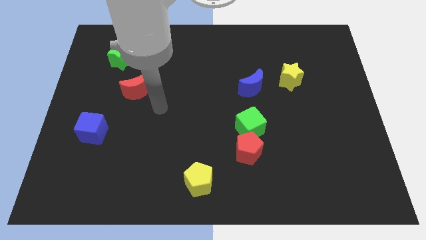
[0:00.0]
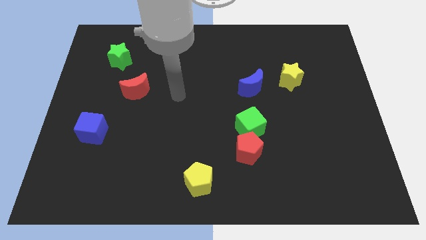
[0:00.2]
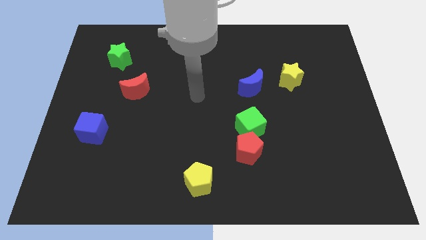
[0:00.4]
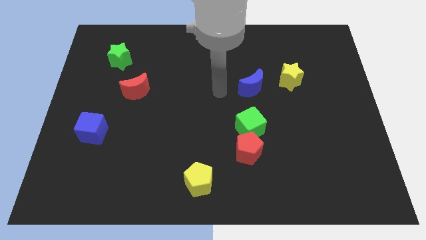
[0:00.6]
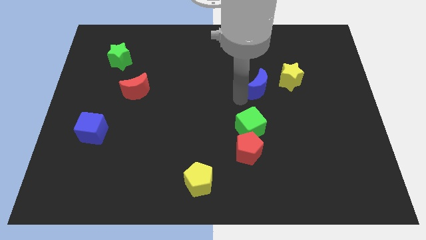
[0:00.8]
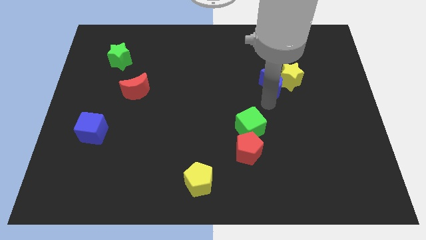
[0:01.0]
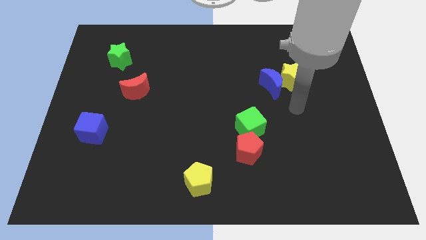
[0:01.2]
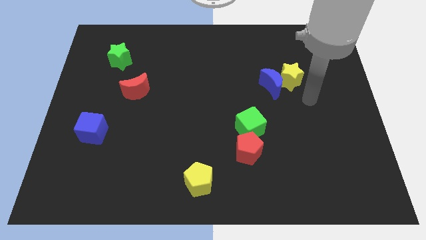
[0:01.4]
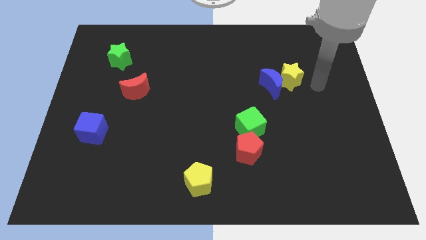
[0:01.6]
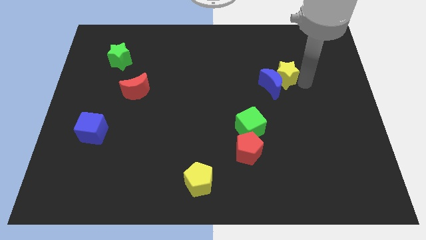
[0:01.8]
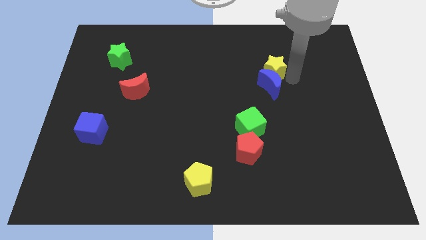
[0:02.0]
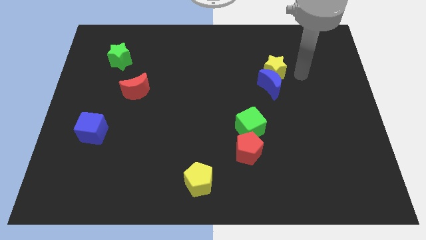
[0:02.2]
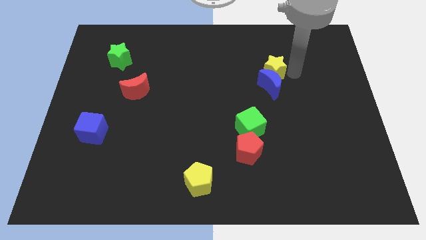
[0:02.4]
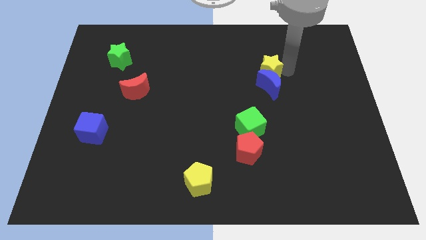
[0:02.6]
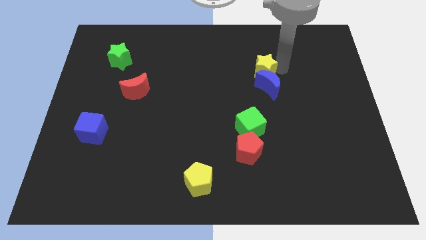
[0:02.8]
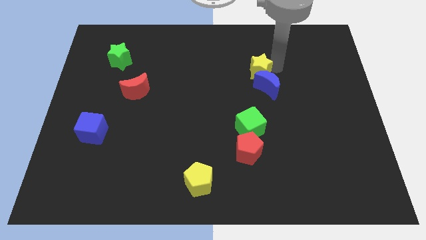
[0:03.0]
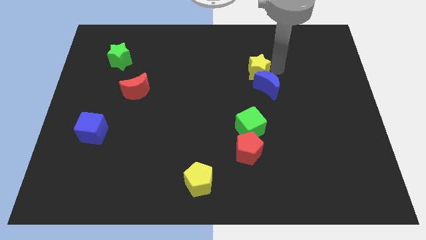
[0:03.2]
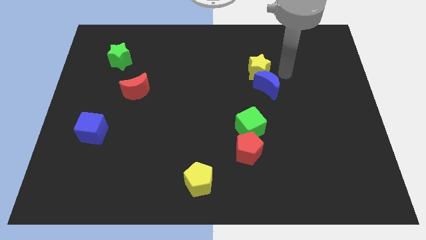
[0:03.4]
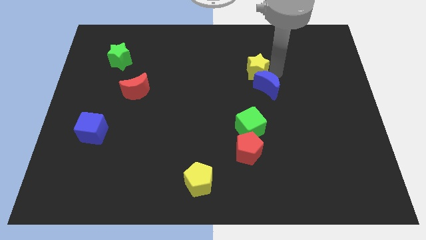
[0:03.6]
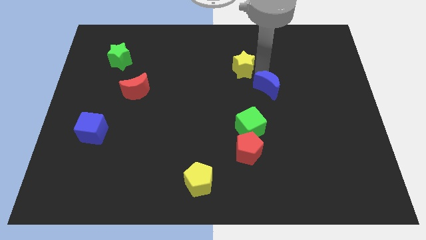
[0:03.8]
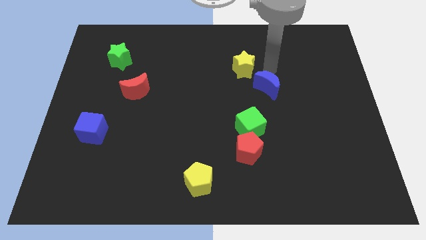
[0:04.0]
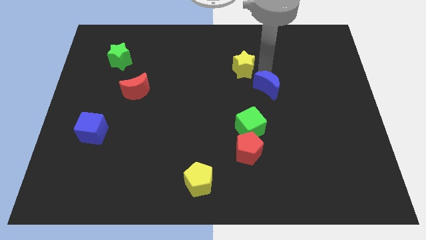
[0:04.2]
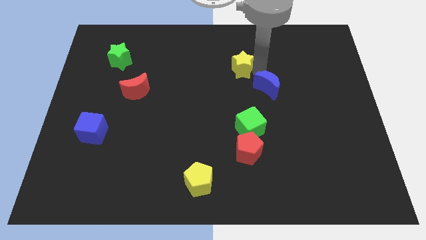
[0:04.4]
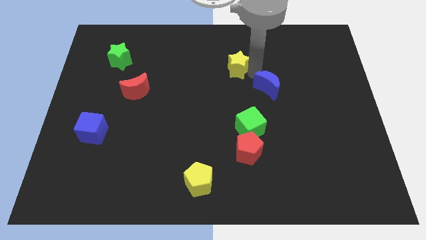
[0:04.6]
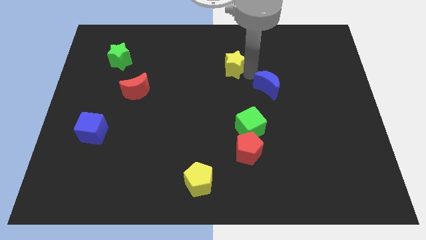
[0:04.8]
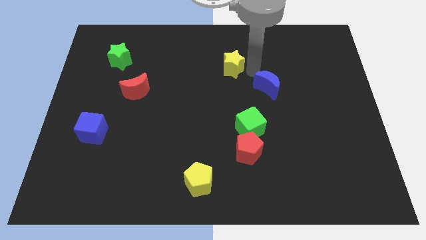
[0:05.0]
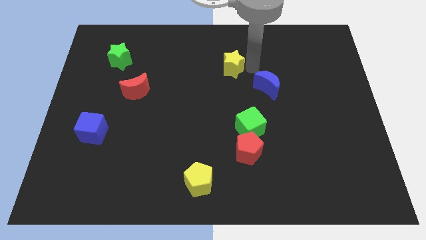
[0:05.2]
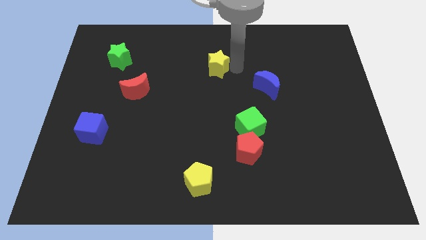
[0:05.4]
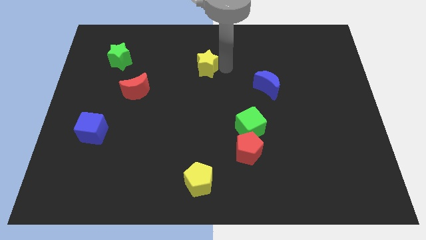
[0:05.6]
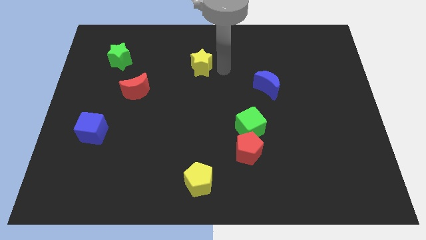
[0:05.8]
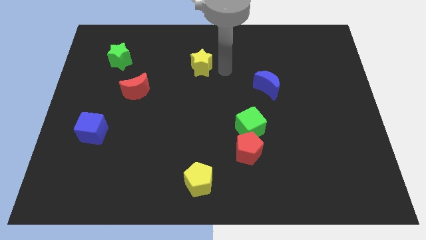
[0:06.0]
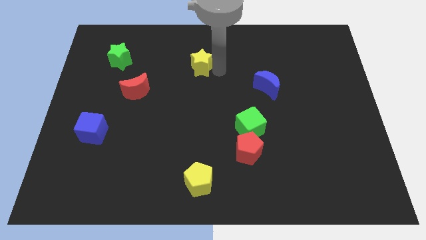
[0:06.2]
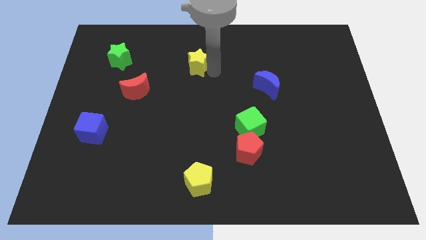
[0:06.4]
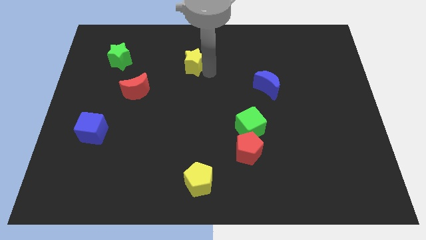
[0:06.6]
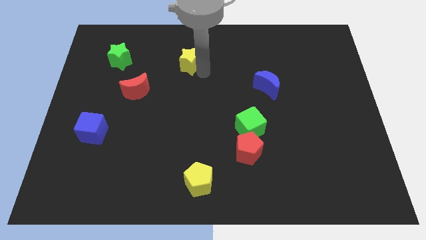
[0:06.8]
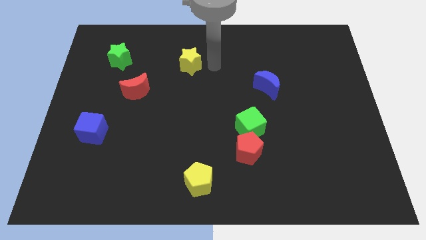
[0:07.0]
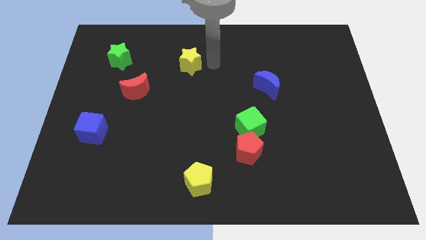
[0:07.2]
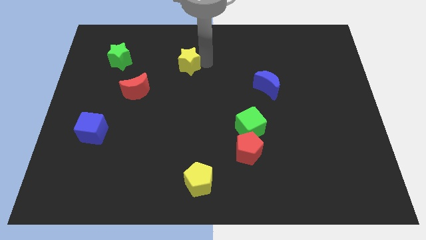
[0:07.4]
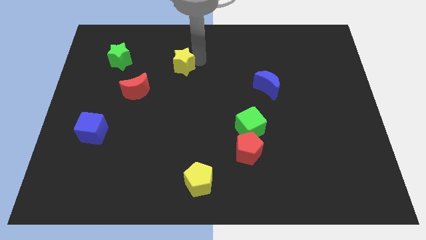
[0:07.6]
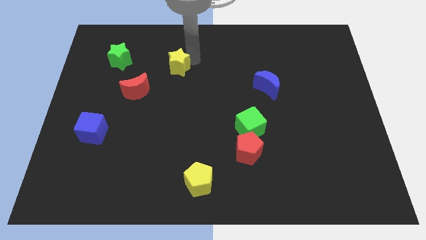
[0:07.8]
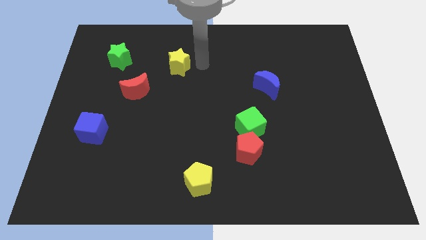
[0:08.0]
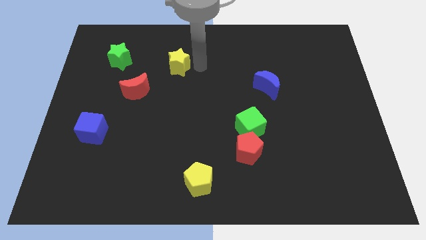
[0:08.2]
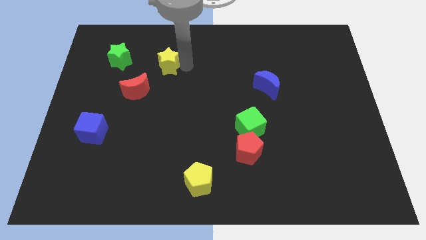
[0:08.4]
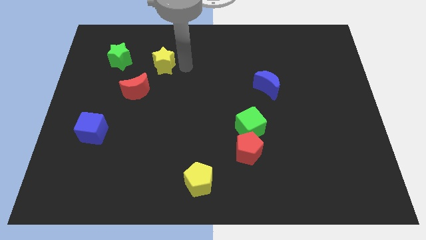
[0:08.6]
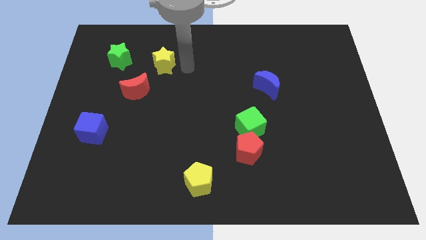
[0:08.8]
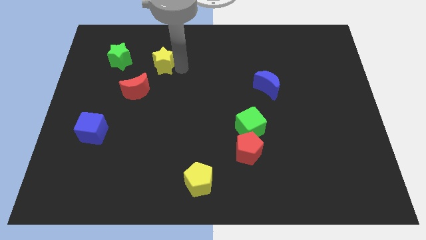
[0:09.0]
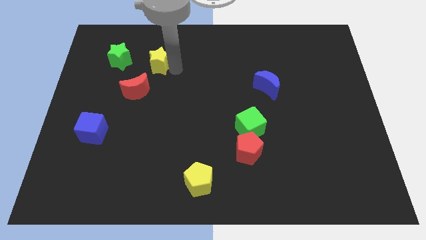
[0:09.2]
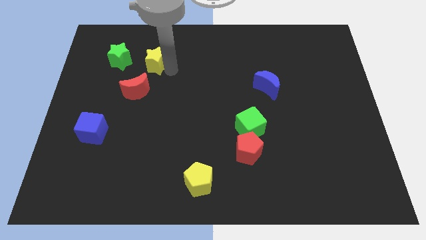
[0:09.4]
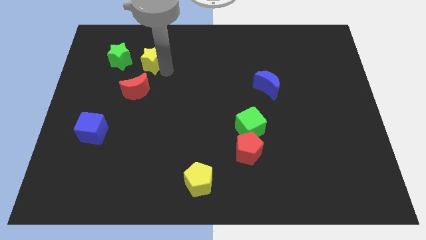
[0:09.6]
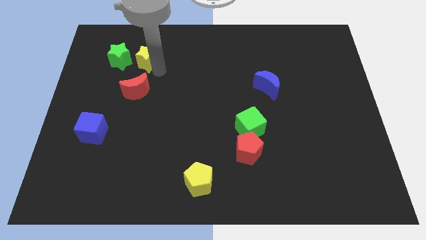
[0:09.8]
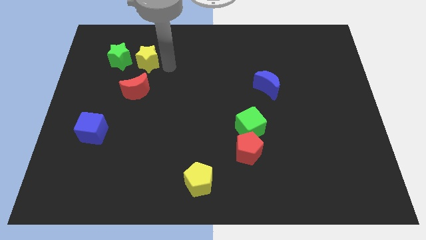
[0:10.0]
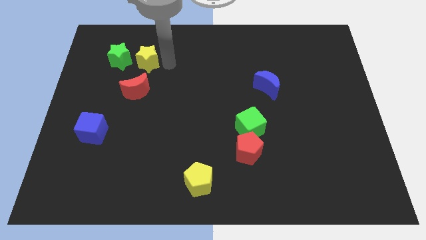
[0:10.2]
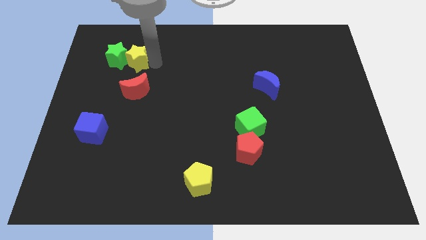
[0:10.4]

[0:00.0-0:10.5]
push the yellow star close to the green star

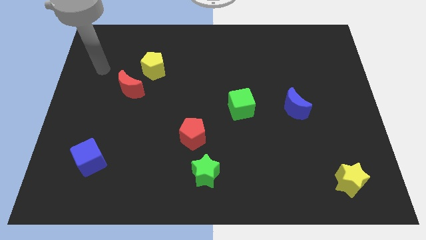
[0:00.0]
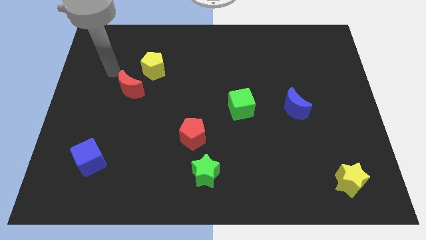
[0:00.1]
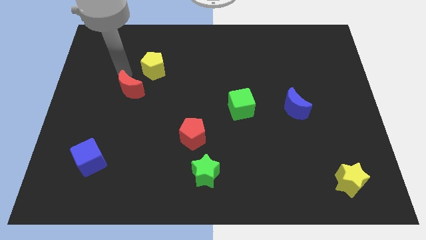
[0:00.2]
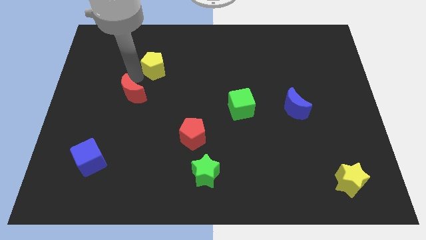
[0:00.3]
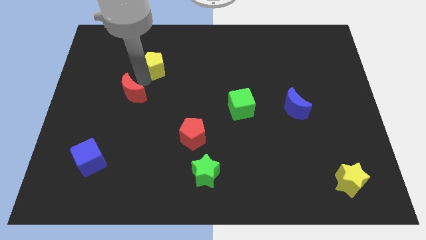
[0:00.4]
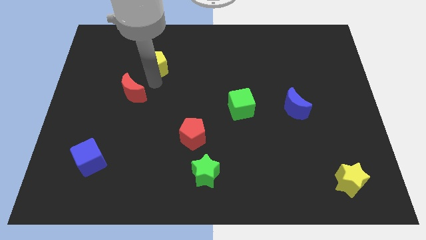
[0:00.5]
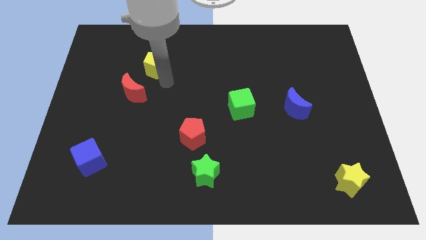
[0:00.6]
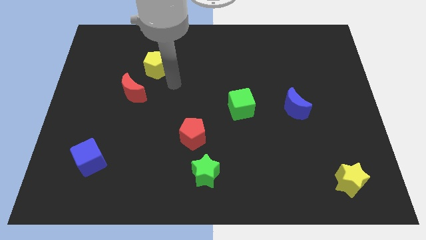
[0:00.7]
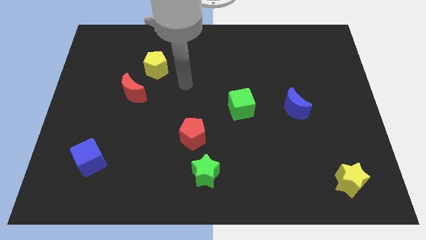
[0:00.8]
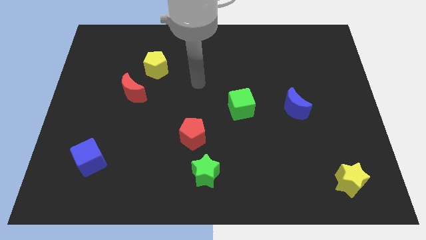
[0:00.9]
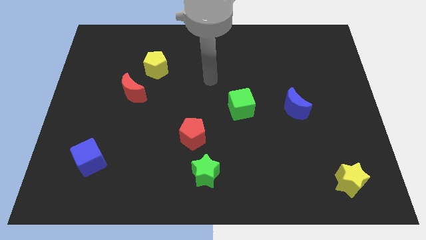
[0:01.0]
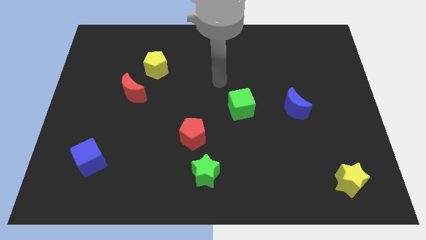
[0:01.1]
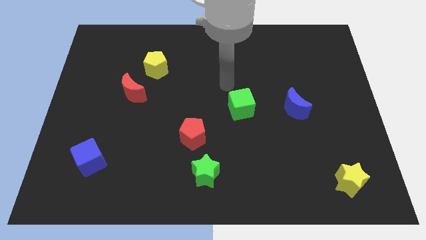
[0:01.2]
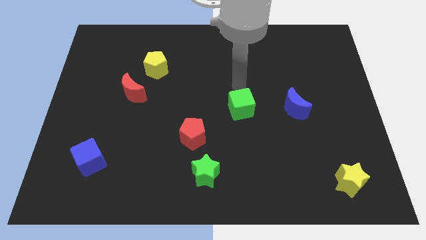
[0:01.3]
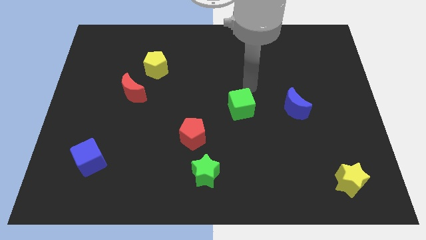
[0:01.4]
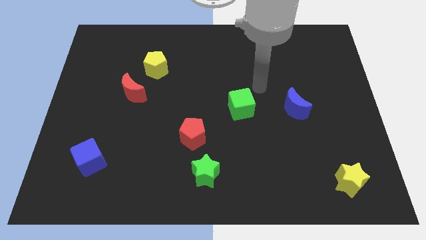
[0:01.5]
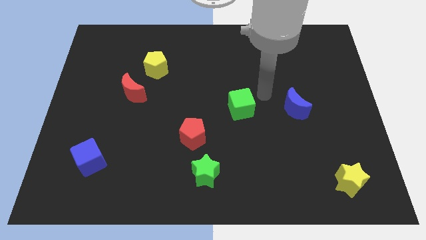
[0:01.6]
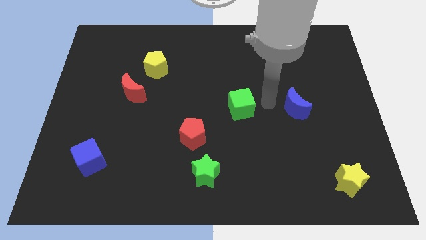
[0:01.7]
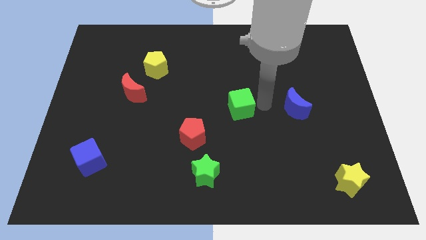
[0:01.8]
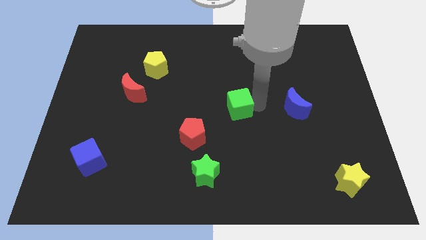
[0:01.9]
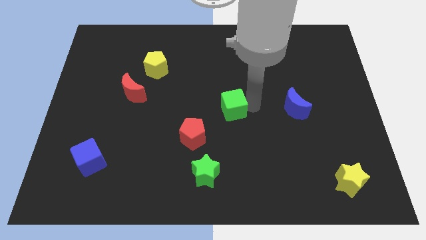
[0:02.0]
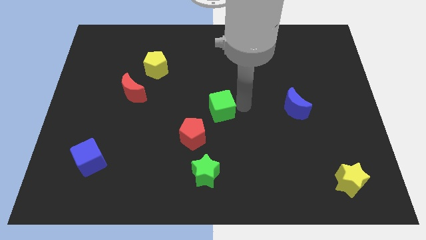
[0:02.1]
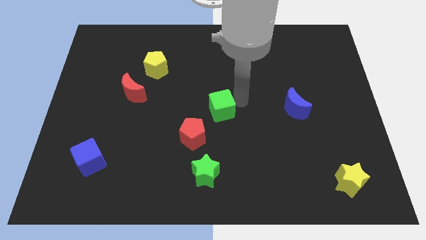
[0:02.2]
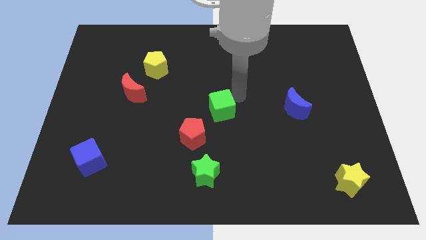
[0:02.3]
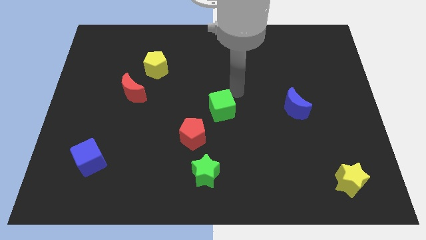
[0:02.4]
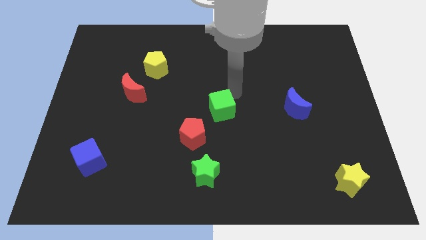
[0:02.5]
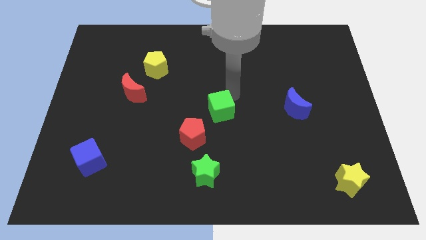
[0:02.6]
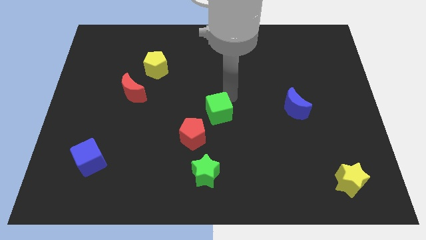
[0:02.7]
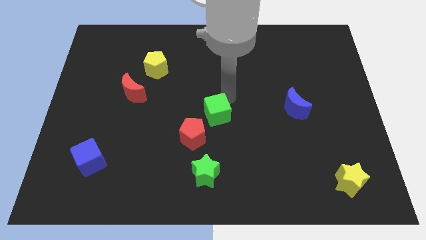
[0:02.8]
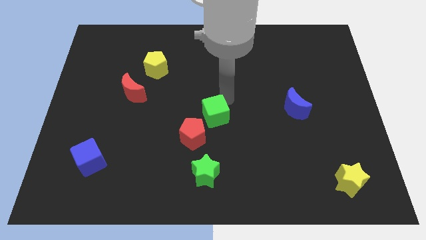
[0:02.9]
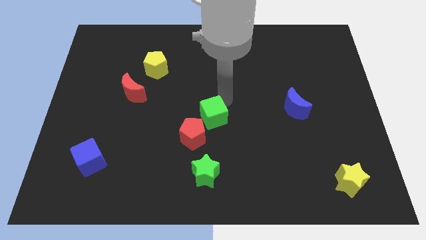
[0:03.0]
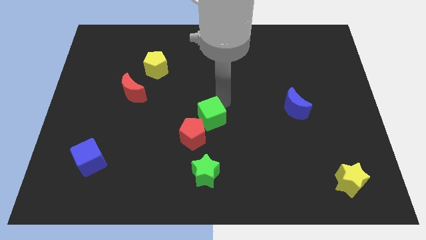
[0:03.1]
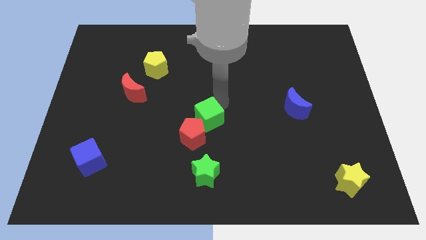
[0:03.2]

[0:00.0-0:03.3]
slide the green cube to the red pentagon
